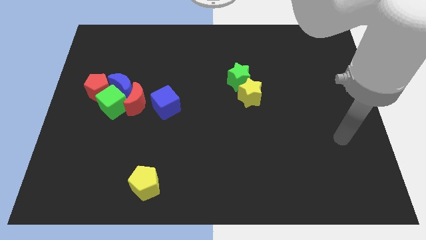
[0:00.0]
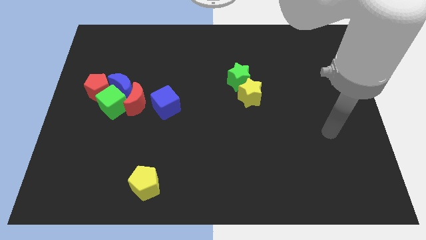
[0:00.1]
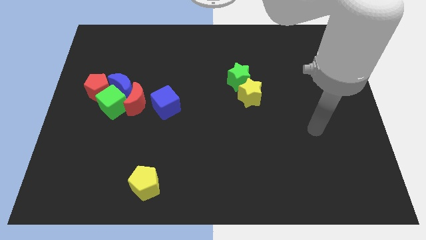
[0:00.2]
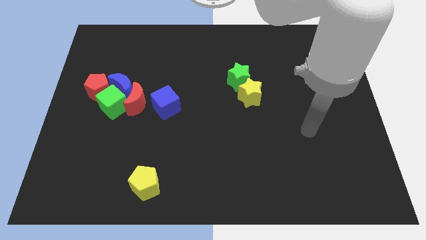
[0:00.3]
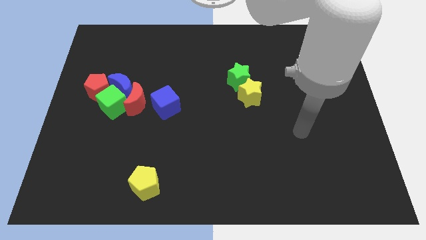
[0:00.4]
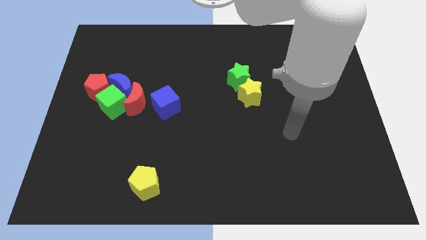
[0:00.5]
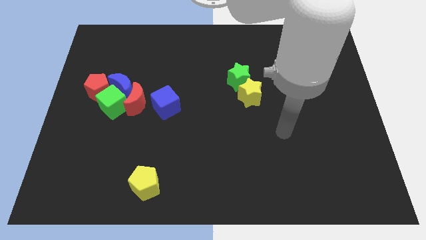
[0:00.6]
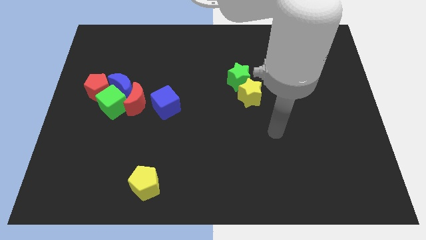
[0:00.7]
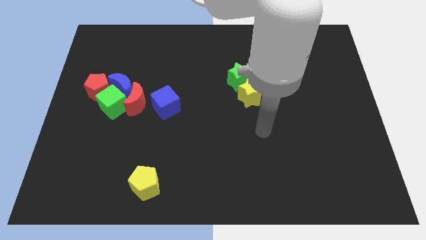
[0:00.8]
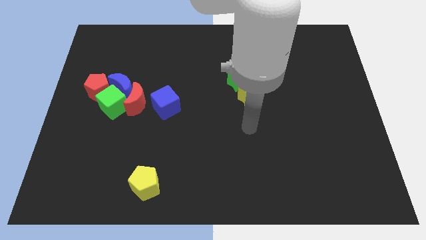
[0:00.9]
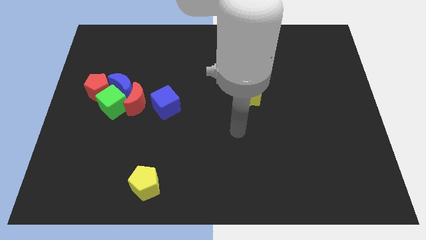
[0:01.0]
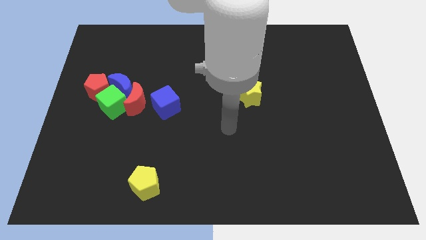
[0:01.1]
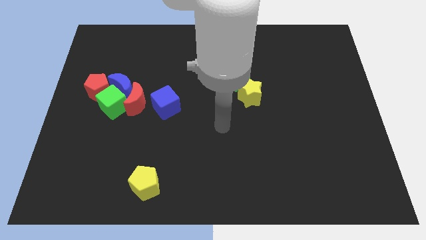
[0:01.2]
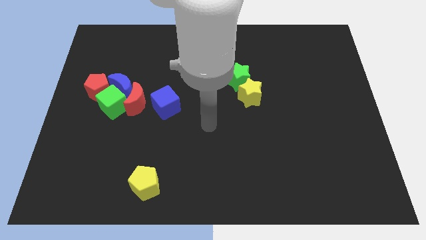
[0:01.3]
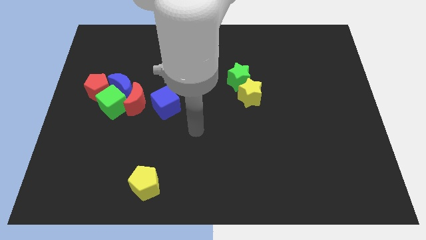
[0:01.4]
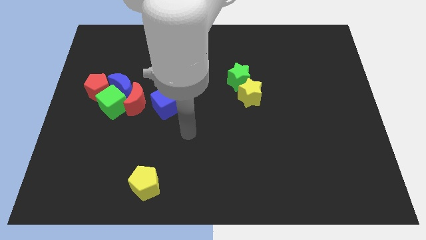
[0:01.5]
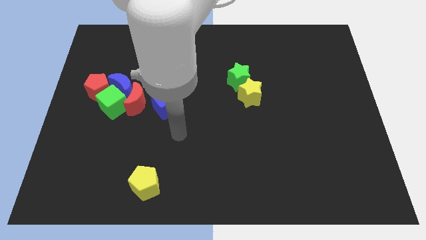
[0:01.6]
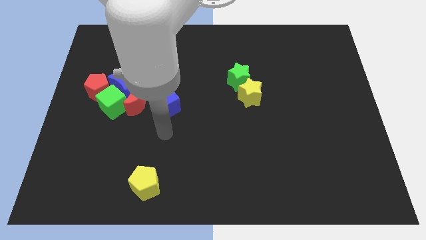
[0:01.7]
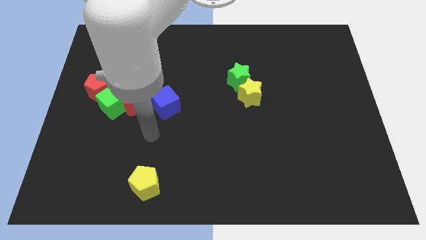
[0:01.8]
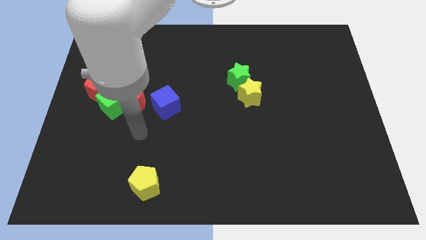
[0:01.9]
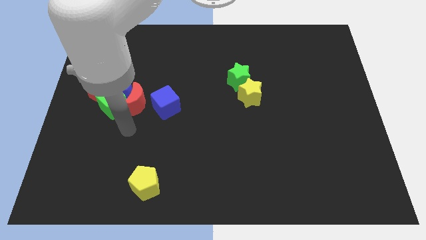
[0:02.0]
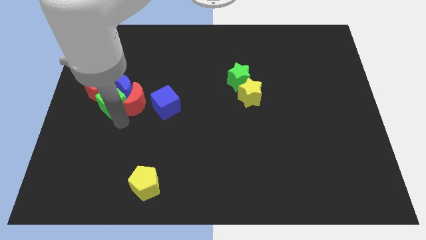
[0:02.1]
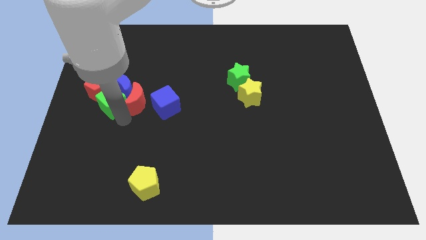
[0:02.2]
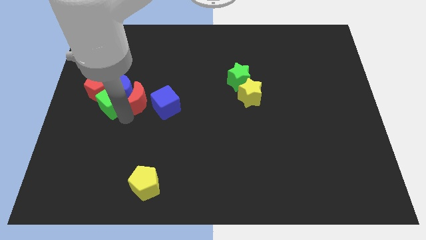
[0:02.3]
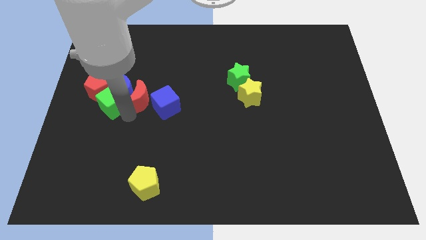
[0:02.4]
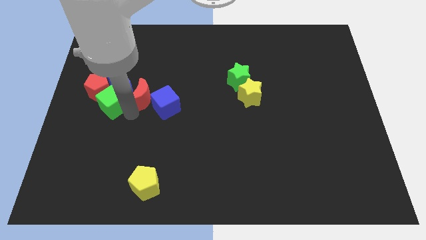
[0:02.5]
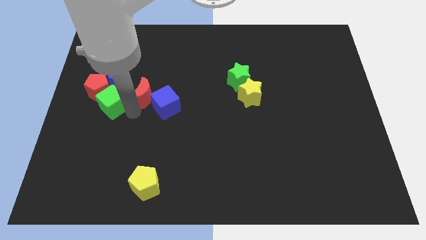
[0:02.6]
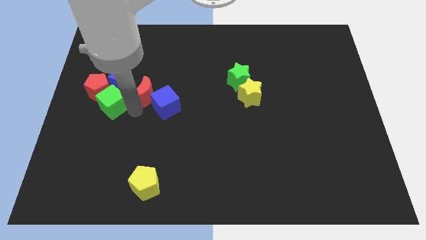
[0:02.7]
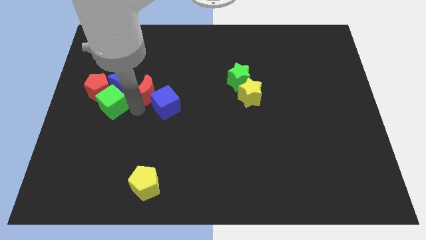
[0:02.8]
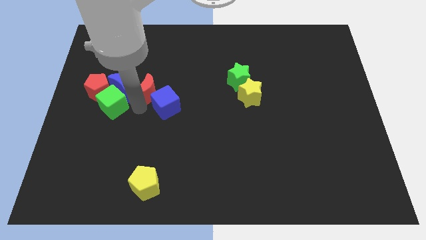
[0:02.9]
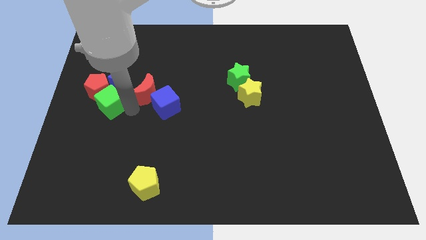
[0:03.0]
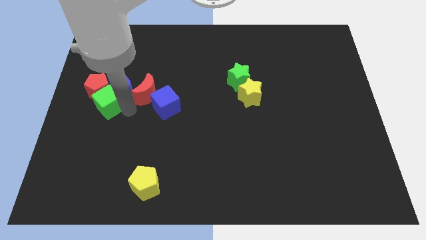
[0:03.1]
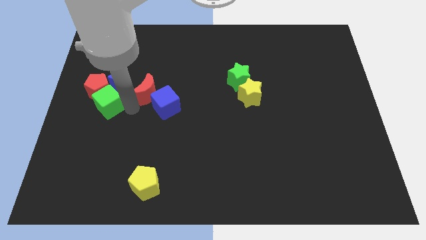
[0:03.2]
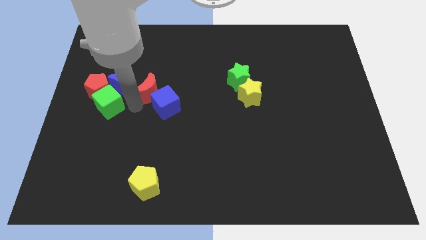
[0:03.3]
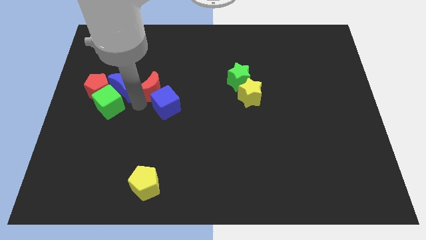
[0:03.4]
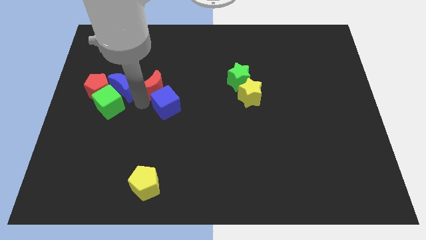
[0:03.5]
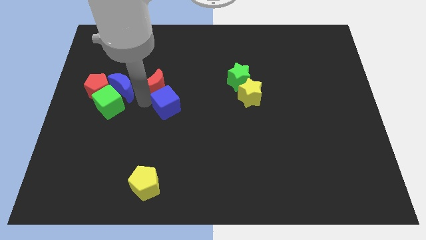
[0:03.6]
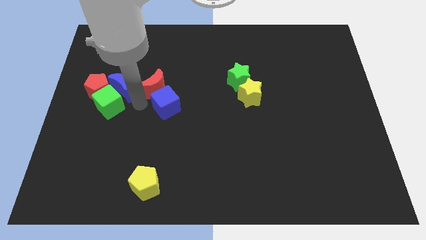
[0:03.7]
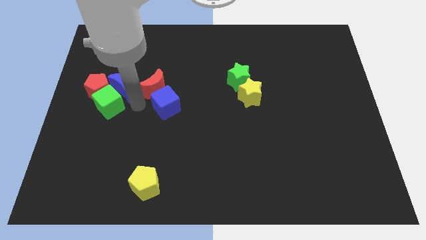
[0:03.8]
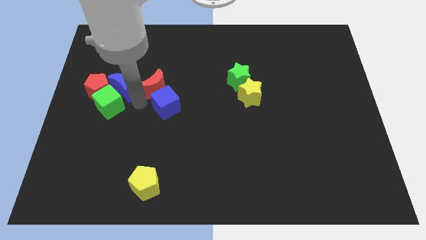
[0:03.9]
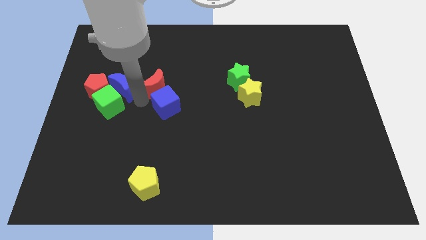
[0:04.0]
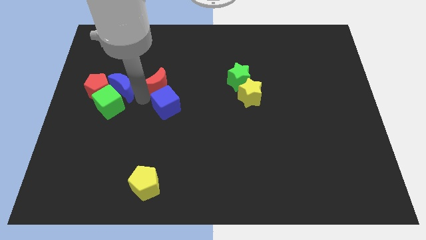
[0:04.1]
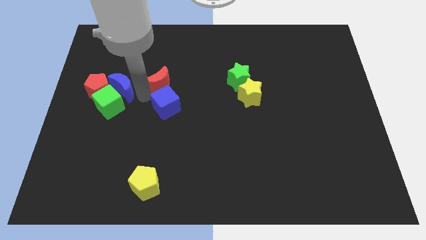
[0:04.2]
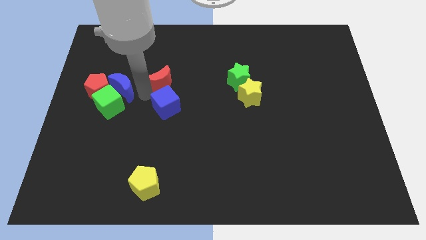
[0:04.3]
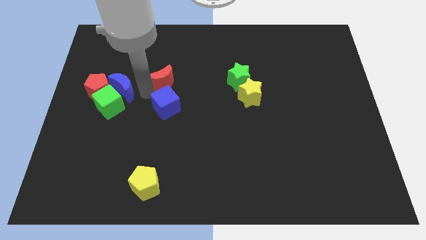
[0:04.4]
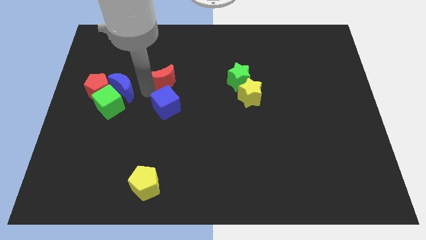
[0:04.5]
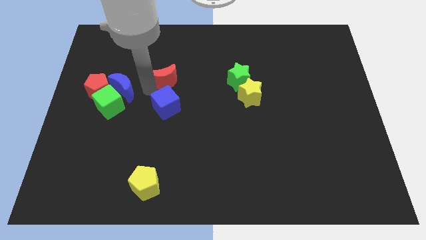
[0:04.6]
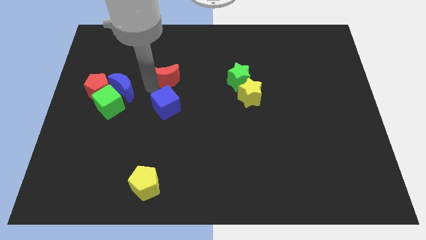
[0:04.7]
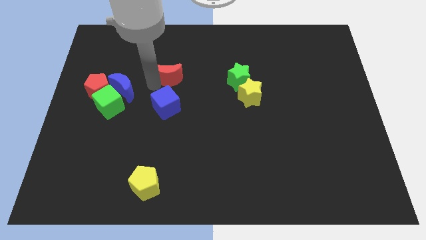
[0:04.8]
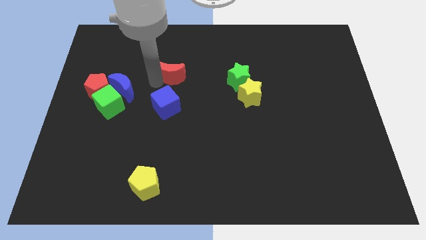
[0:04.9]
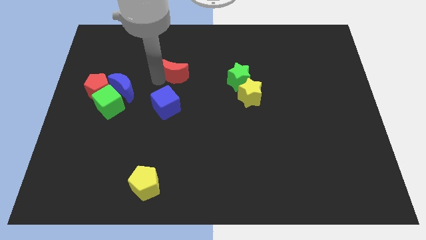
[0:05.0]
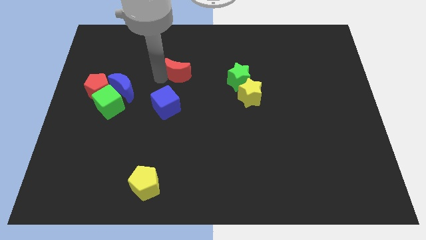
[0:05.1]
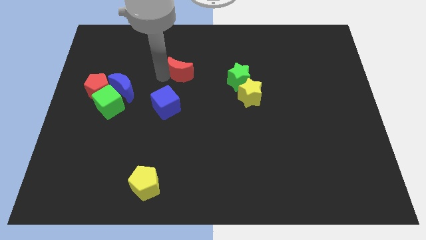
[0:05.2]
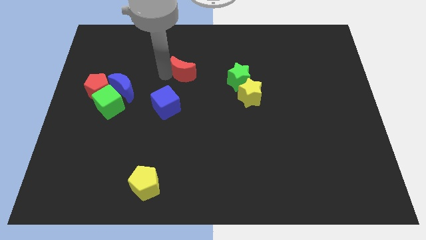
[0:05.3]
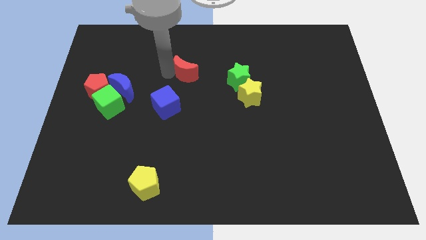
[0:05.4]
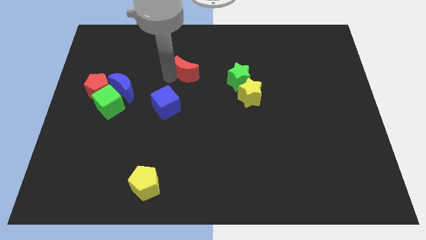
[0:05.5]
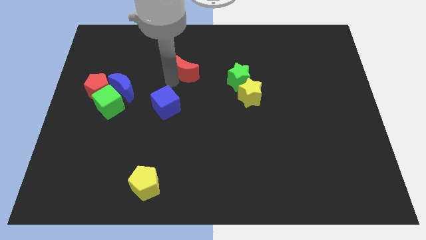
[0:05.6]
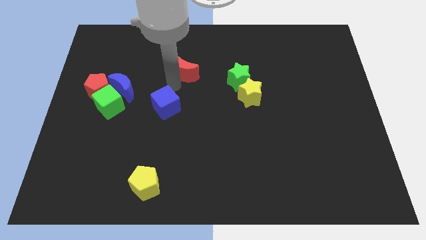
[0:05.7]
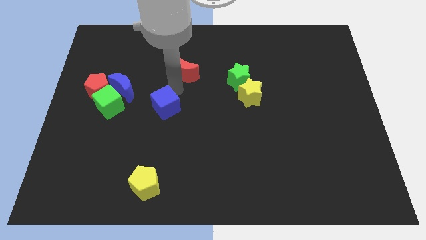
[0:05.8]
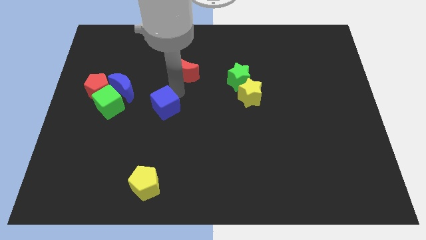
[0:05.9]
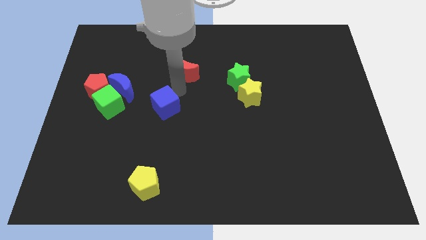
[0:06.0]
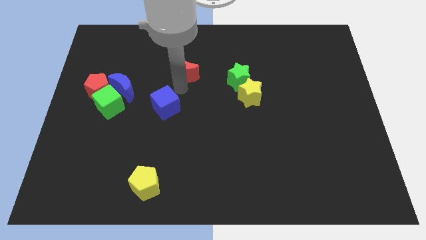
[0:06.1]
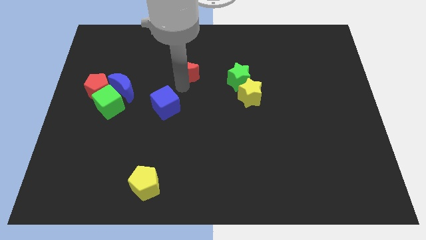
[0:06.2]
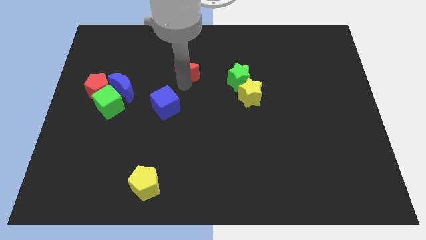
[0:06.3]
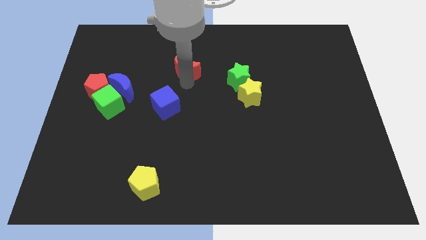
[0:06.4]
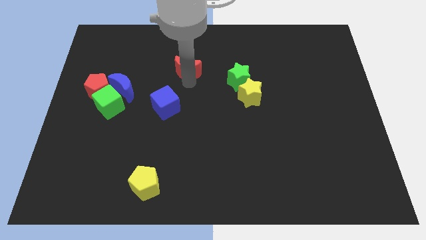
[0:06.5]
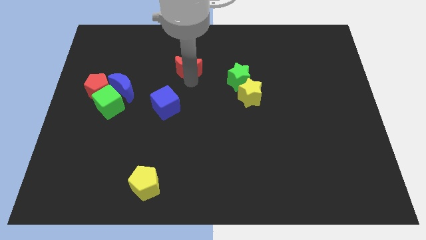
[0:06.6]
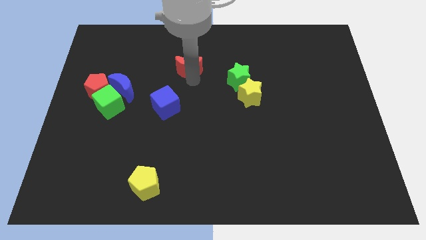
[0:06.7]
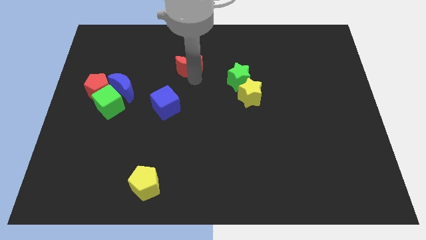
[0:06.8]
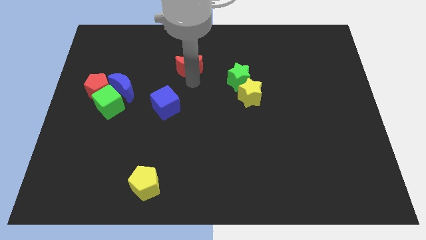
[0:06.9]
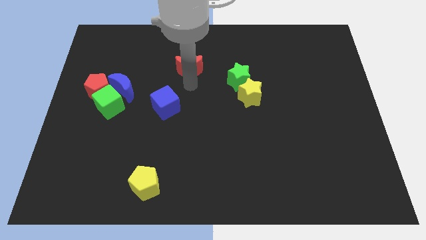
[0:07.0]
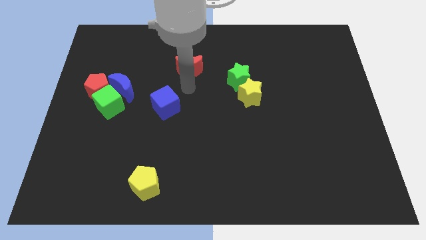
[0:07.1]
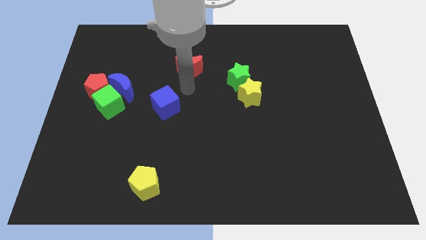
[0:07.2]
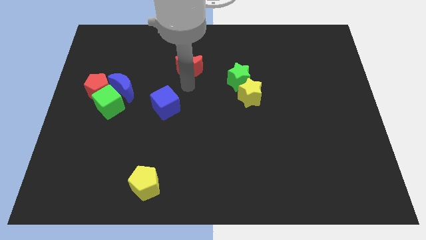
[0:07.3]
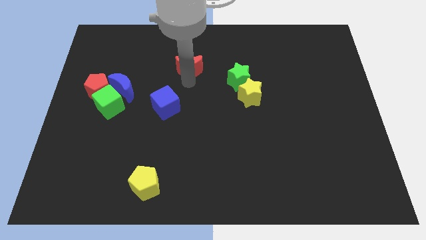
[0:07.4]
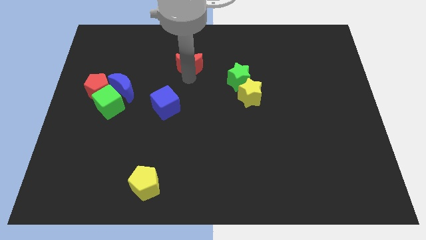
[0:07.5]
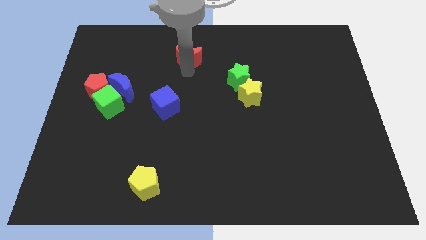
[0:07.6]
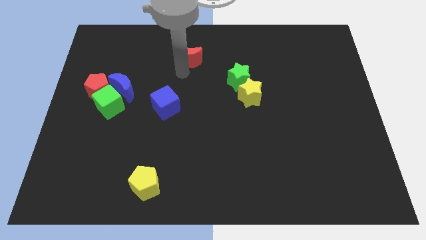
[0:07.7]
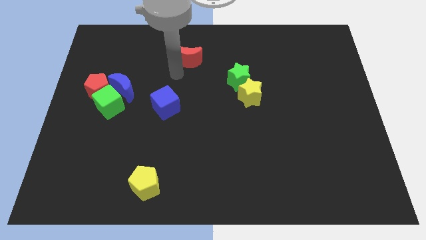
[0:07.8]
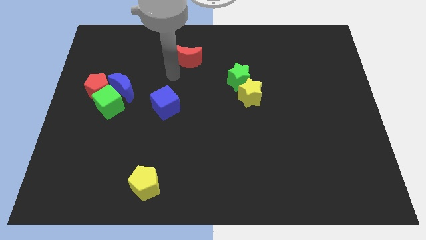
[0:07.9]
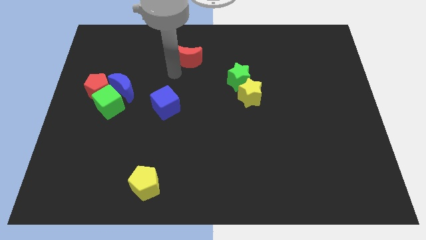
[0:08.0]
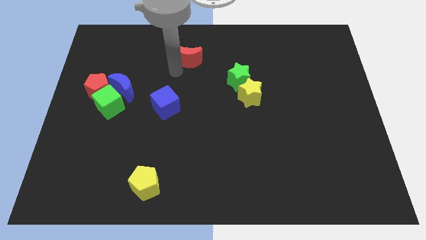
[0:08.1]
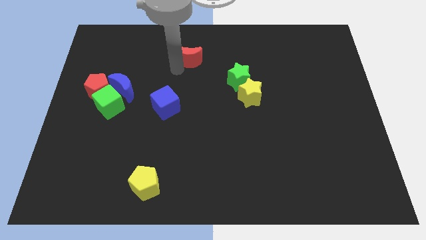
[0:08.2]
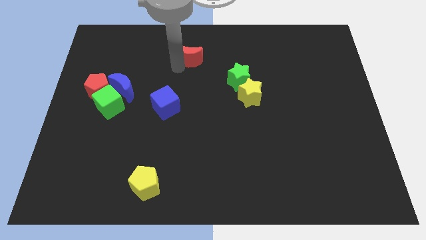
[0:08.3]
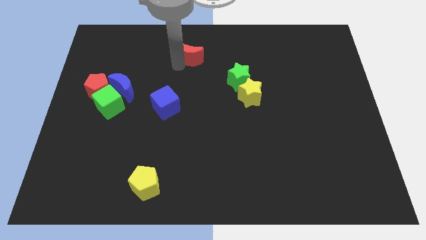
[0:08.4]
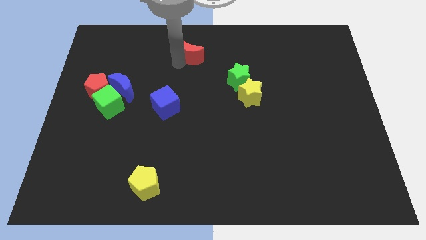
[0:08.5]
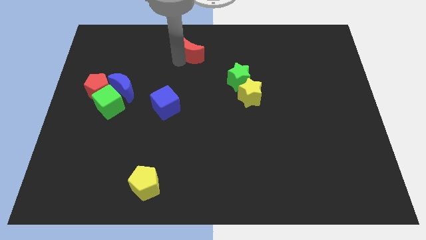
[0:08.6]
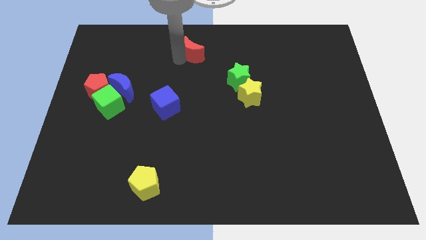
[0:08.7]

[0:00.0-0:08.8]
move the red moon to the top side
